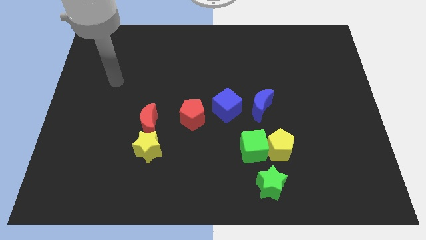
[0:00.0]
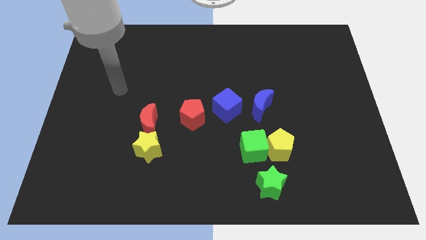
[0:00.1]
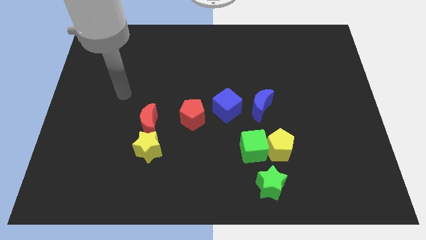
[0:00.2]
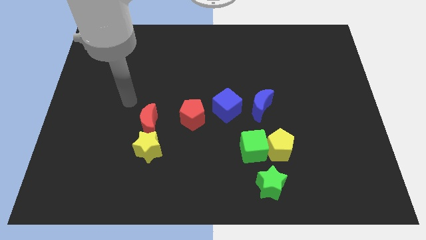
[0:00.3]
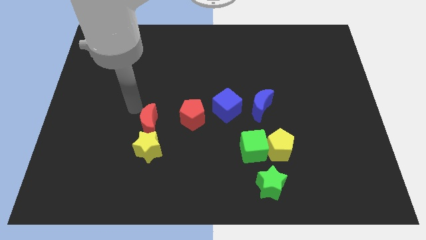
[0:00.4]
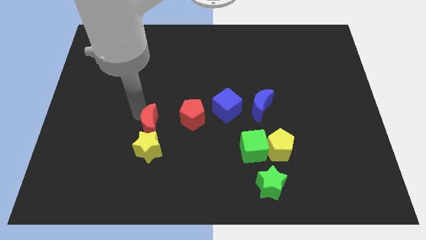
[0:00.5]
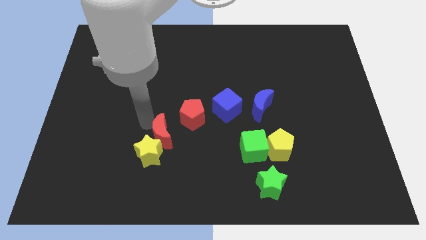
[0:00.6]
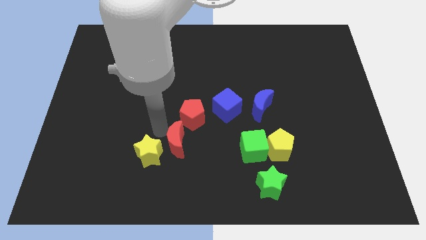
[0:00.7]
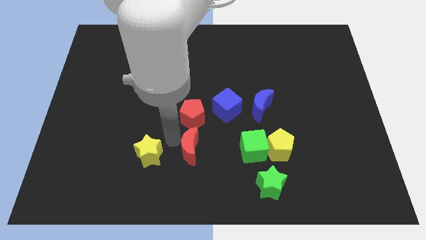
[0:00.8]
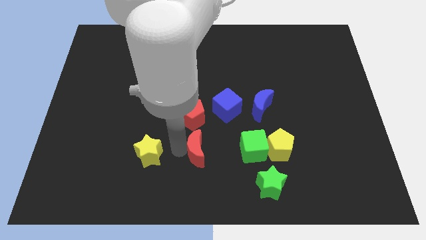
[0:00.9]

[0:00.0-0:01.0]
separate the yellow star from the red moon

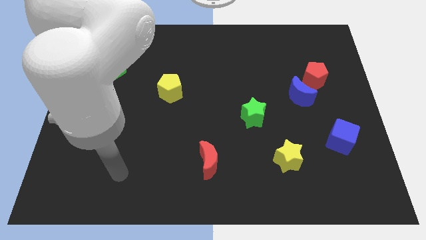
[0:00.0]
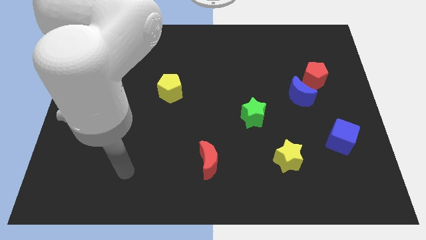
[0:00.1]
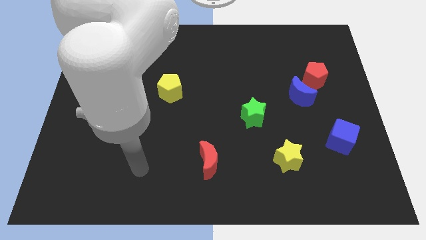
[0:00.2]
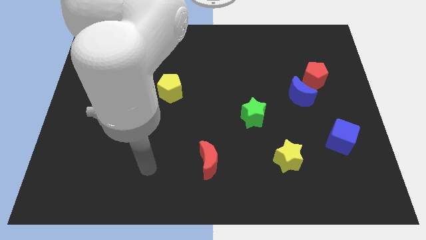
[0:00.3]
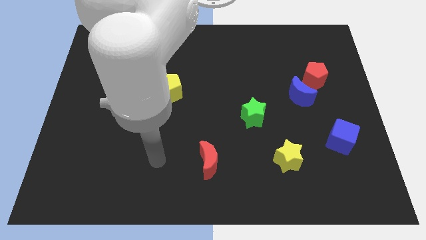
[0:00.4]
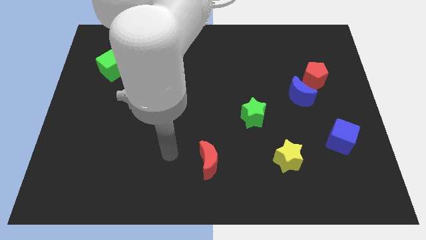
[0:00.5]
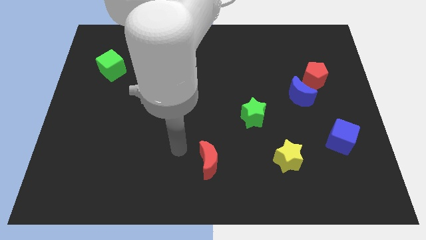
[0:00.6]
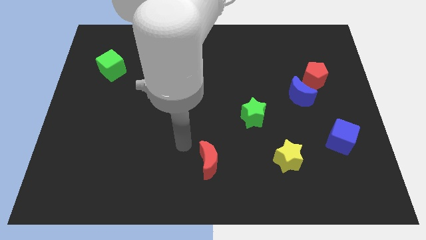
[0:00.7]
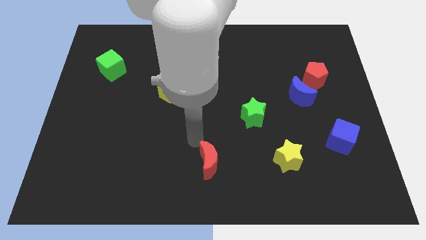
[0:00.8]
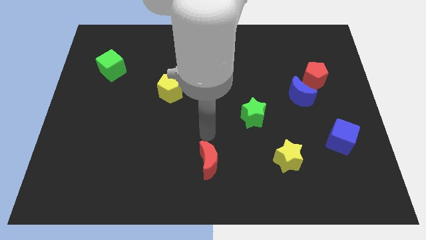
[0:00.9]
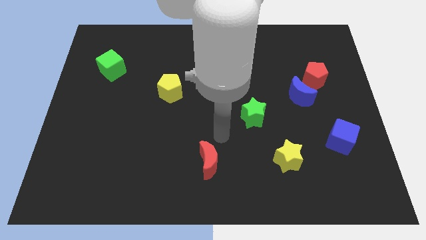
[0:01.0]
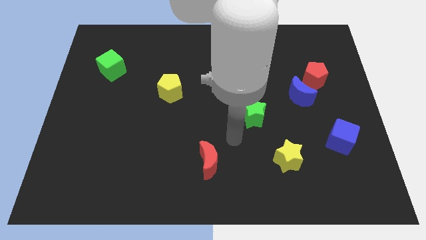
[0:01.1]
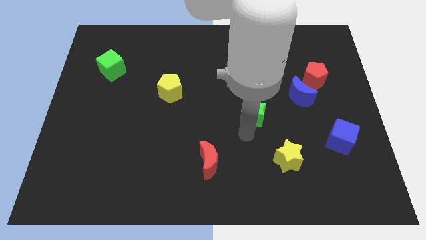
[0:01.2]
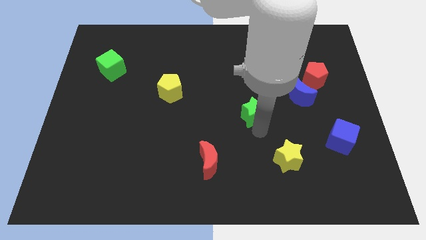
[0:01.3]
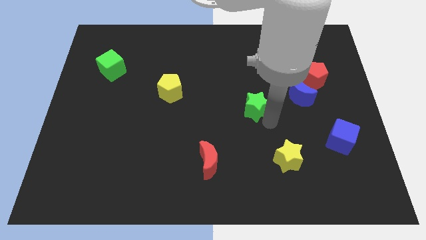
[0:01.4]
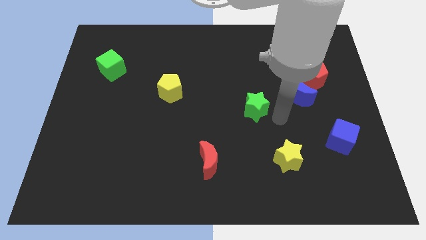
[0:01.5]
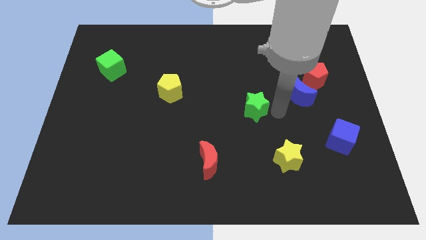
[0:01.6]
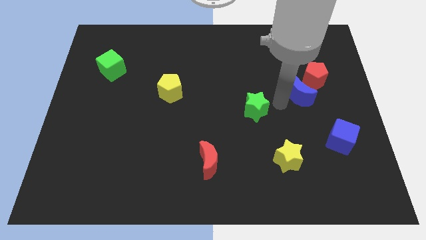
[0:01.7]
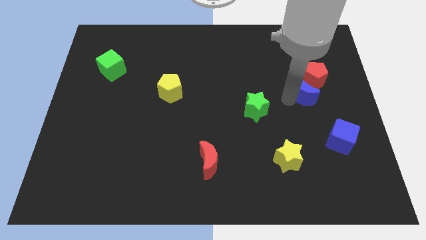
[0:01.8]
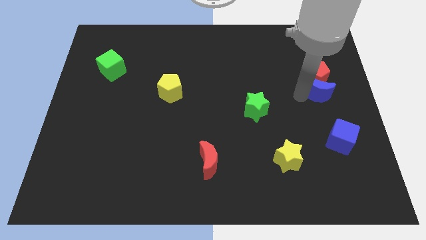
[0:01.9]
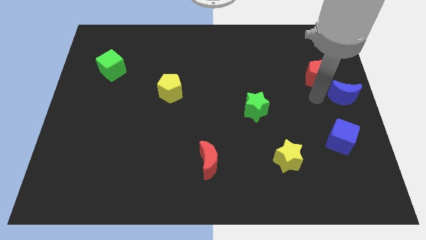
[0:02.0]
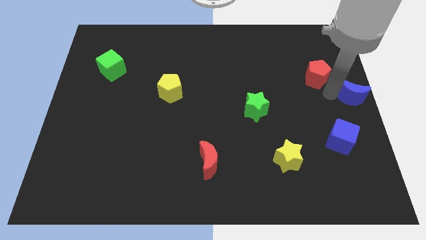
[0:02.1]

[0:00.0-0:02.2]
move the red pentagon away from the blue moon

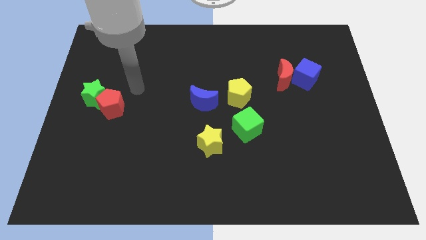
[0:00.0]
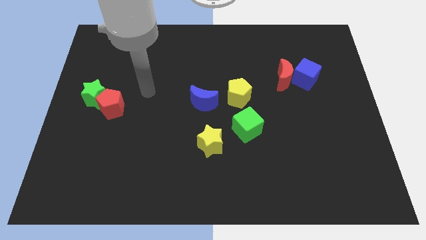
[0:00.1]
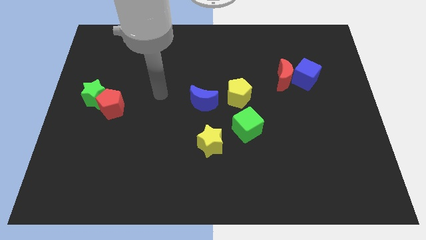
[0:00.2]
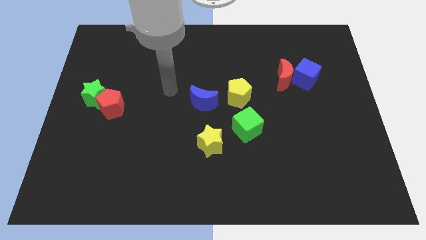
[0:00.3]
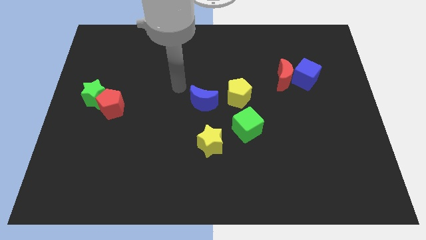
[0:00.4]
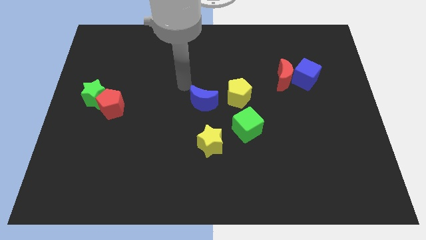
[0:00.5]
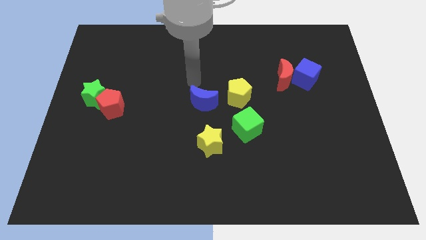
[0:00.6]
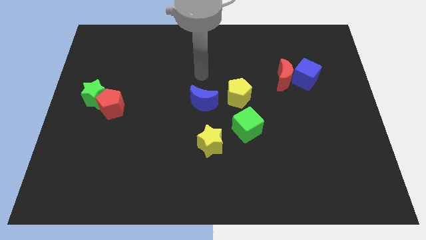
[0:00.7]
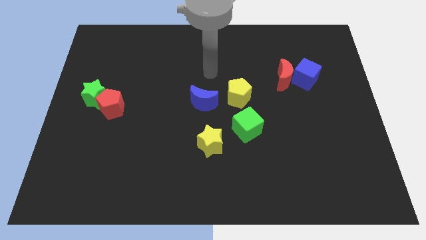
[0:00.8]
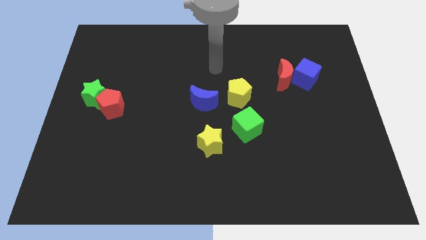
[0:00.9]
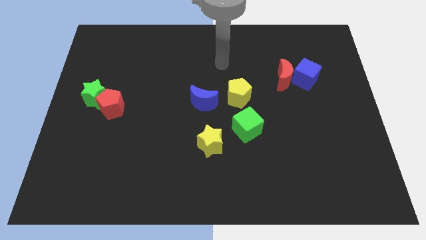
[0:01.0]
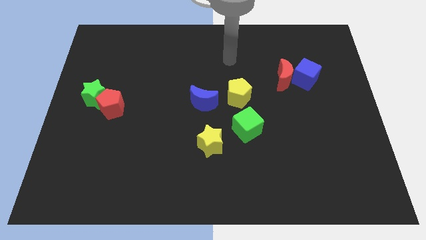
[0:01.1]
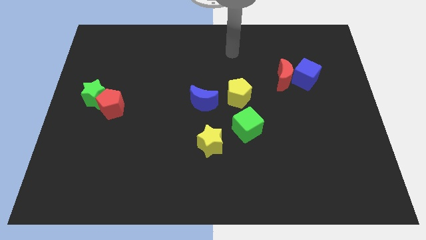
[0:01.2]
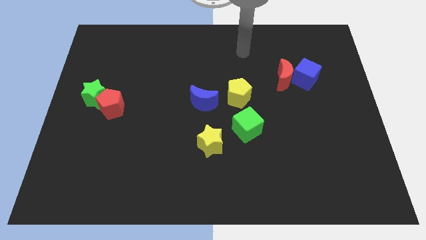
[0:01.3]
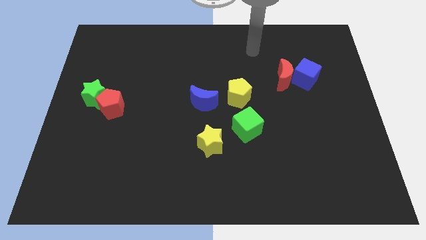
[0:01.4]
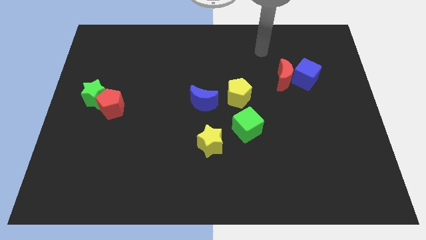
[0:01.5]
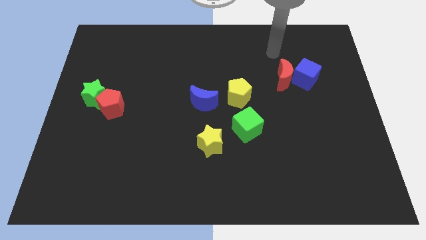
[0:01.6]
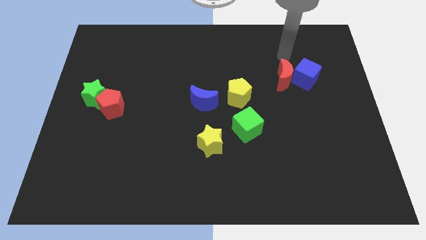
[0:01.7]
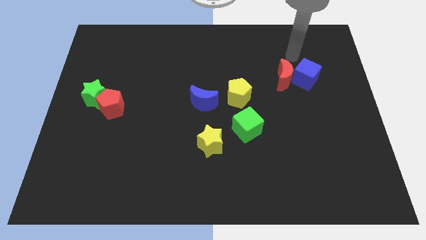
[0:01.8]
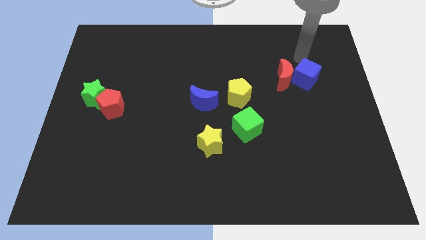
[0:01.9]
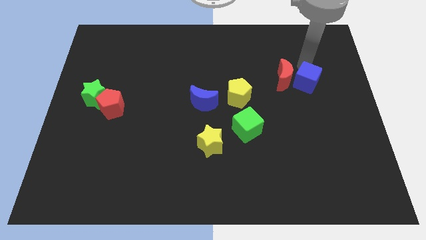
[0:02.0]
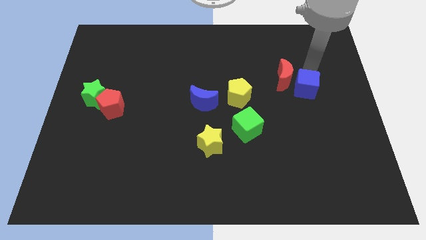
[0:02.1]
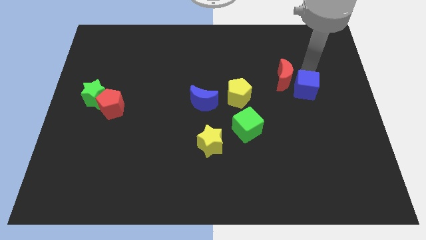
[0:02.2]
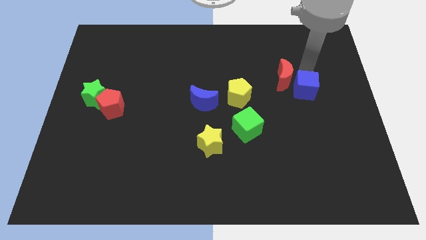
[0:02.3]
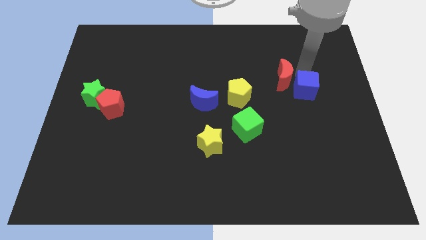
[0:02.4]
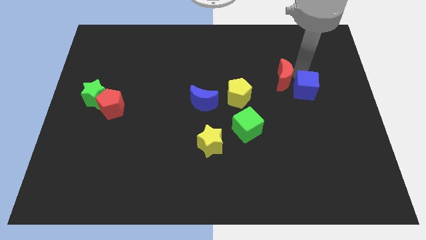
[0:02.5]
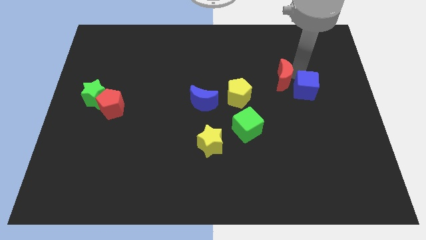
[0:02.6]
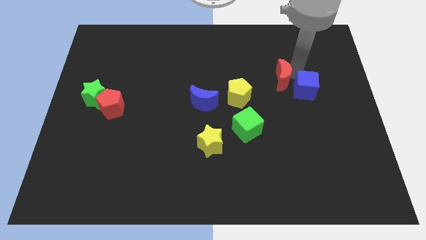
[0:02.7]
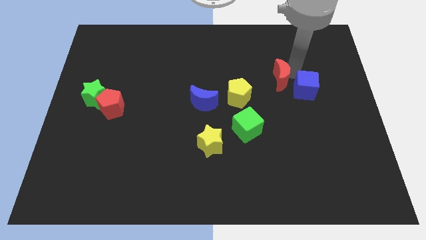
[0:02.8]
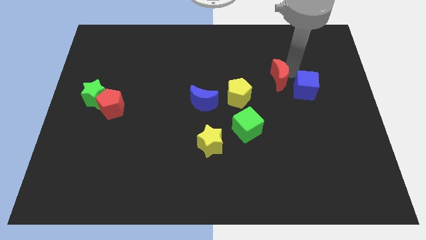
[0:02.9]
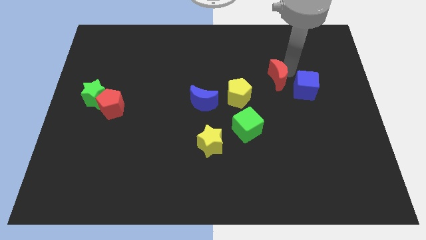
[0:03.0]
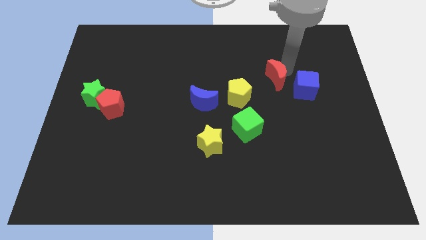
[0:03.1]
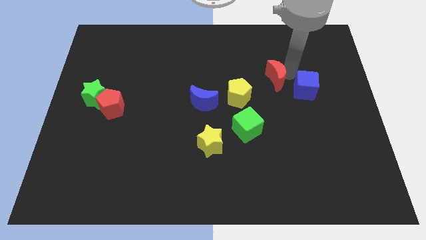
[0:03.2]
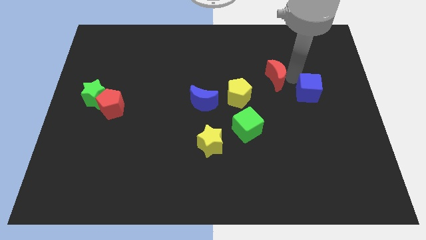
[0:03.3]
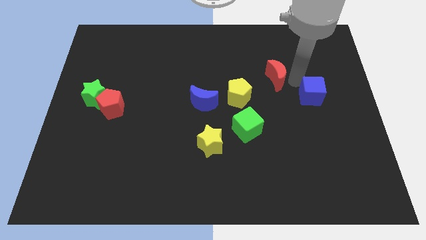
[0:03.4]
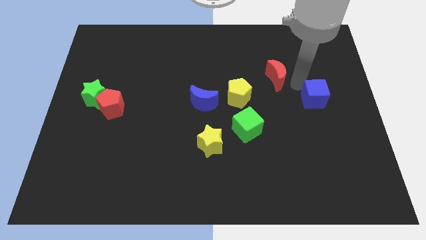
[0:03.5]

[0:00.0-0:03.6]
pull the red moon apart from the blue cube

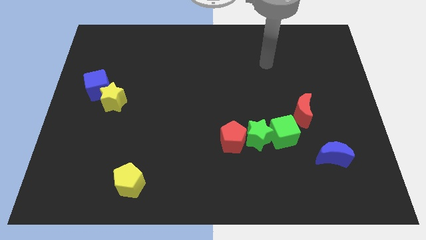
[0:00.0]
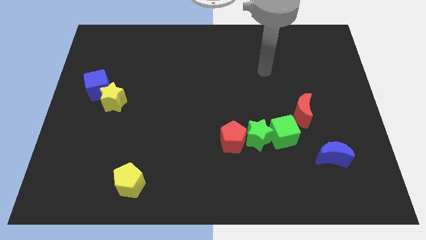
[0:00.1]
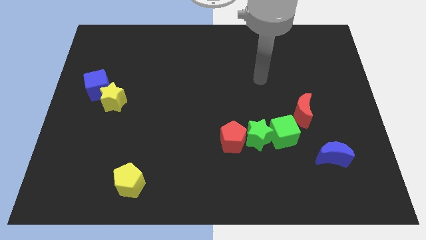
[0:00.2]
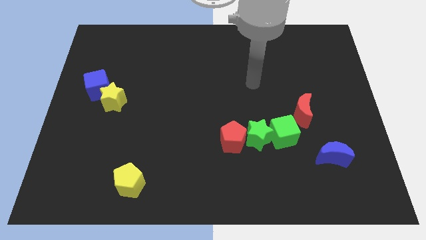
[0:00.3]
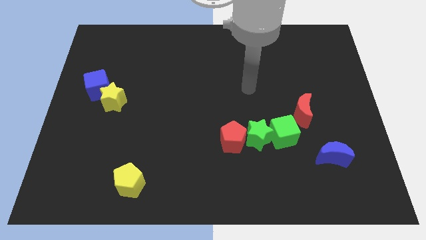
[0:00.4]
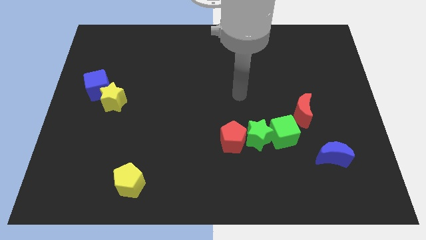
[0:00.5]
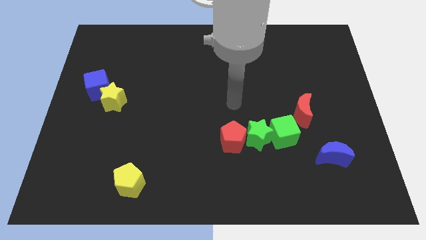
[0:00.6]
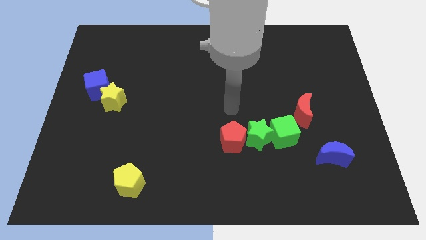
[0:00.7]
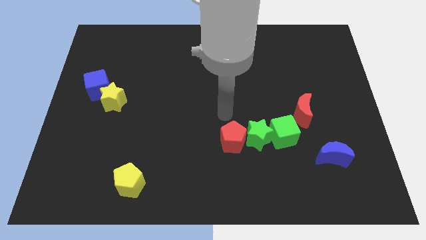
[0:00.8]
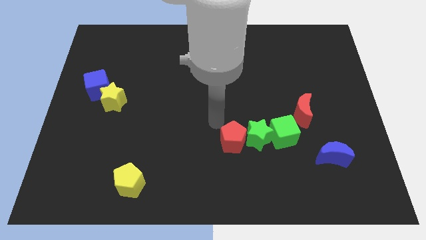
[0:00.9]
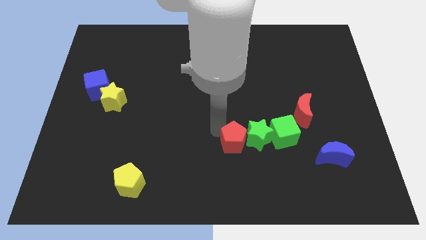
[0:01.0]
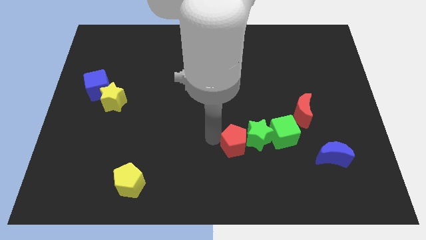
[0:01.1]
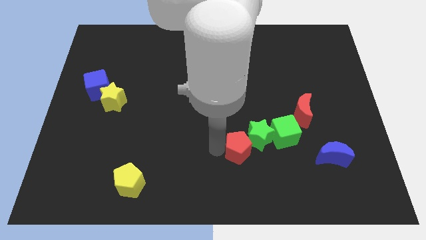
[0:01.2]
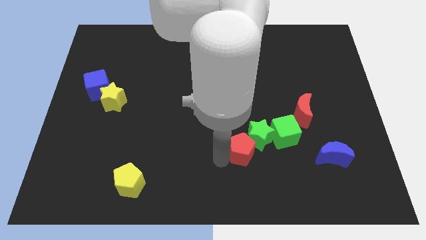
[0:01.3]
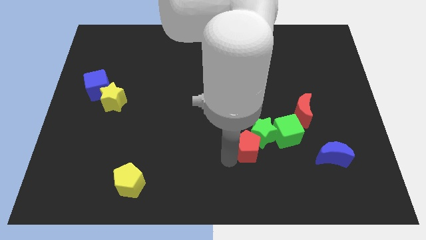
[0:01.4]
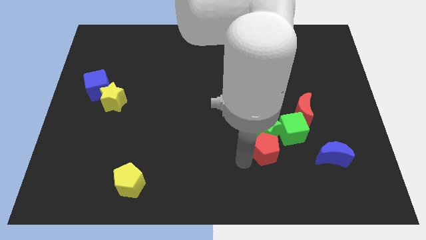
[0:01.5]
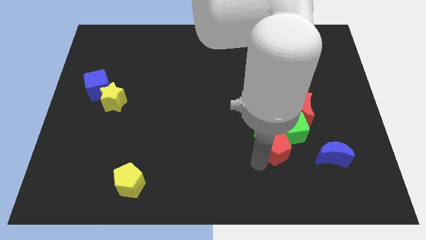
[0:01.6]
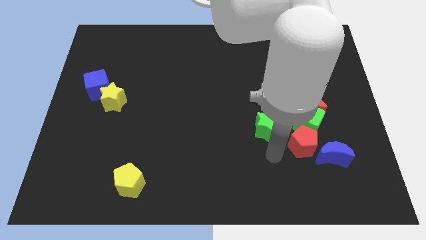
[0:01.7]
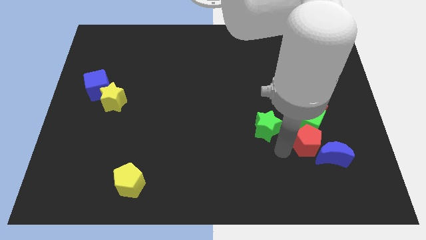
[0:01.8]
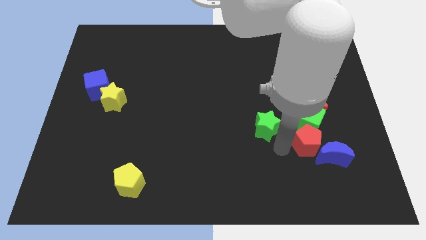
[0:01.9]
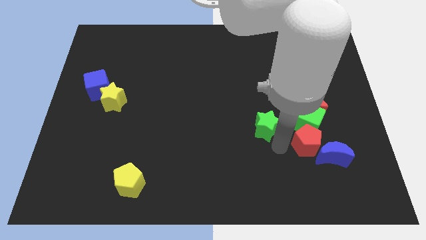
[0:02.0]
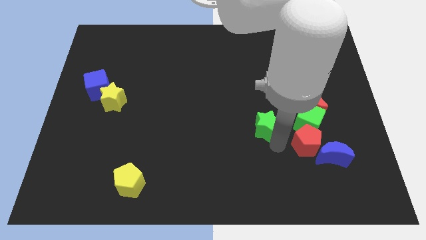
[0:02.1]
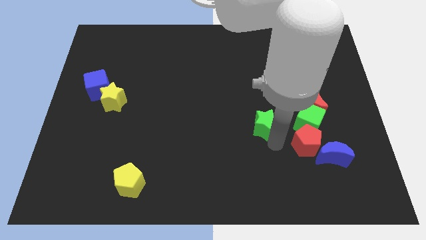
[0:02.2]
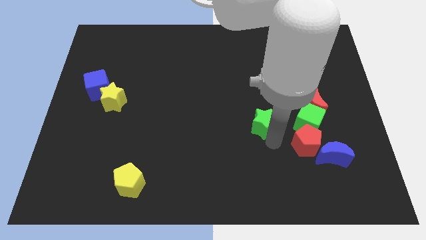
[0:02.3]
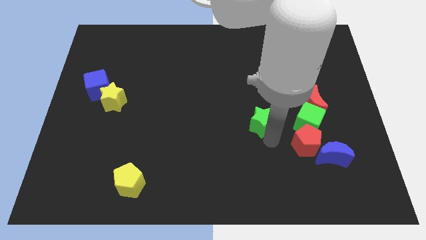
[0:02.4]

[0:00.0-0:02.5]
pull the green star apart from the green cube and red pentagon
